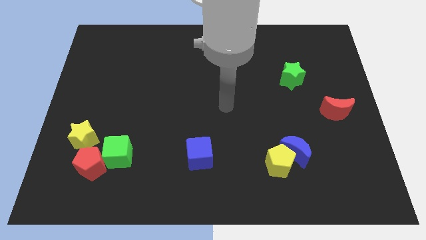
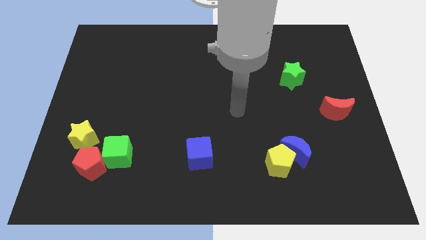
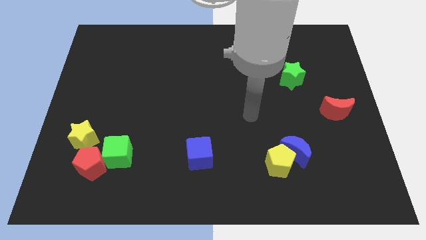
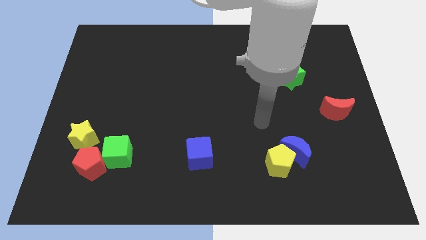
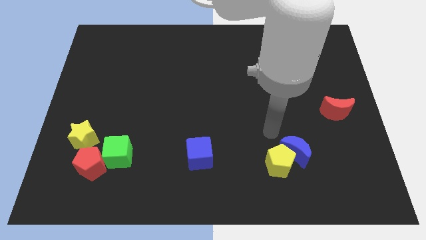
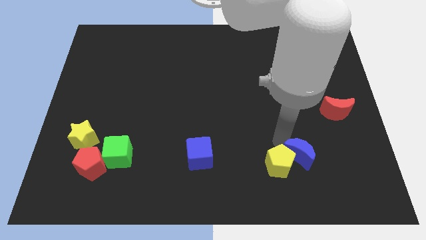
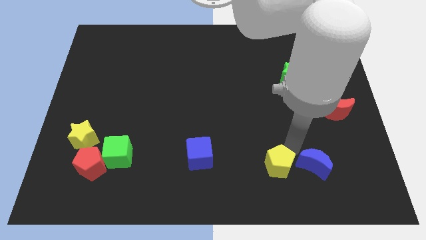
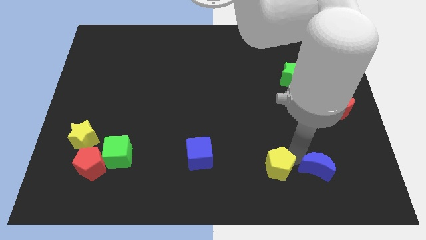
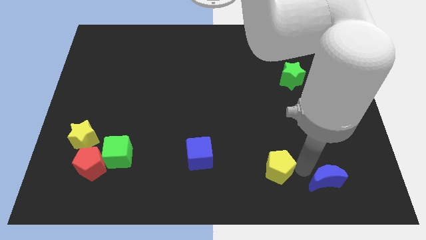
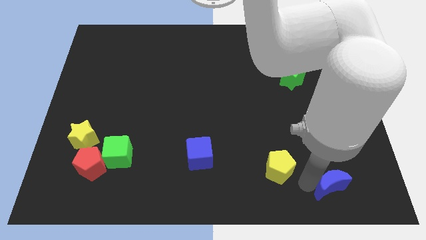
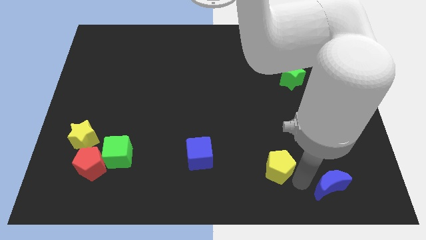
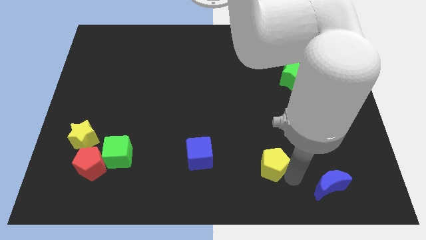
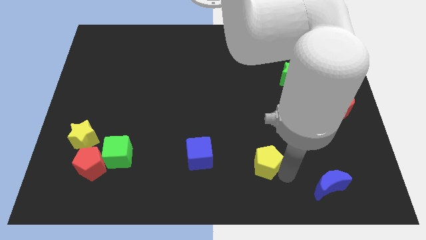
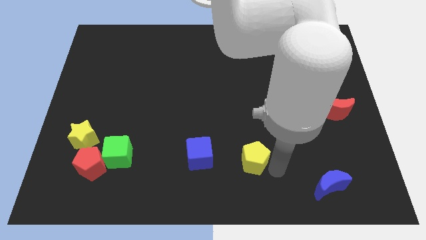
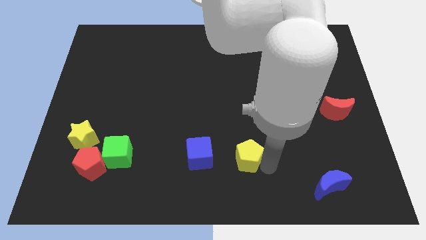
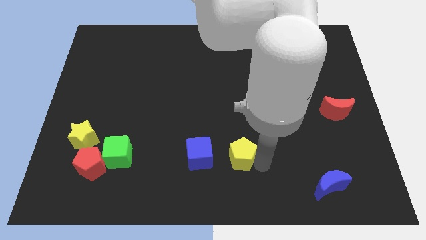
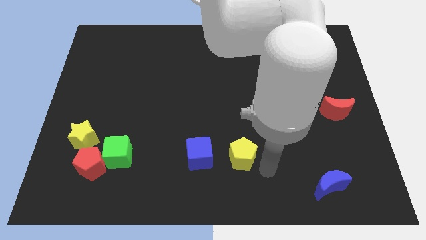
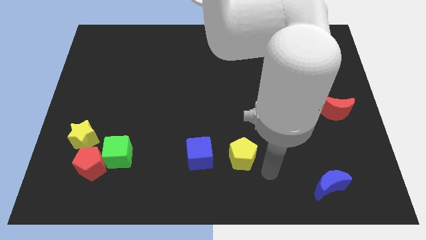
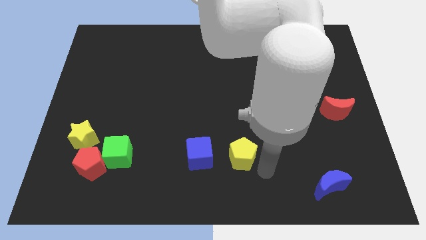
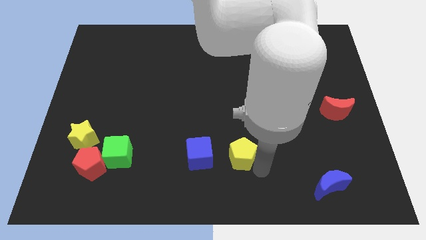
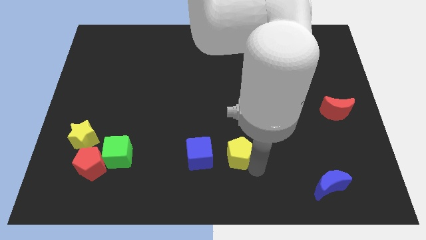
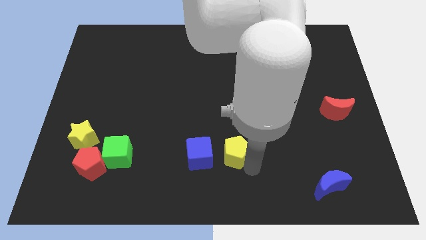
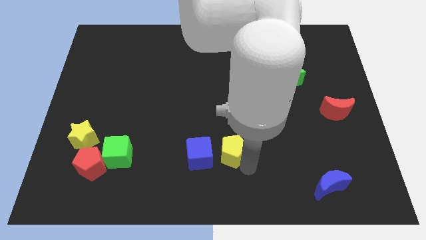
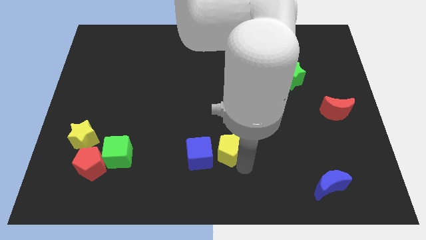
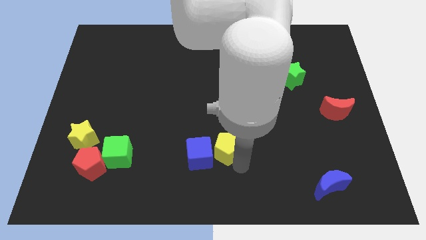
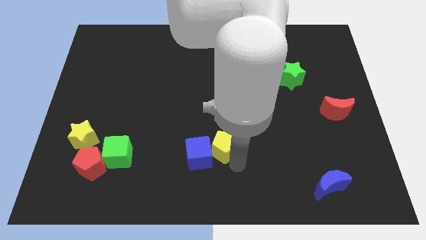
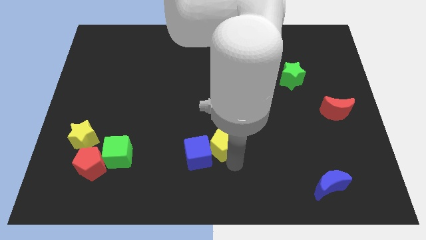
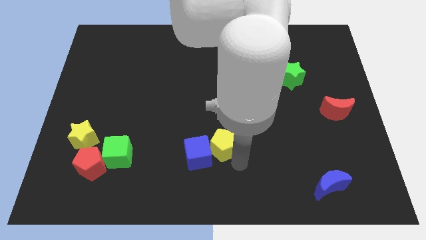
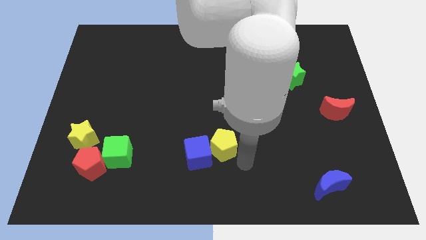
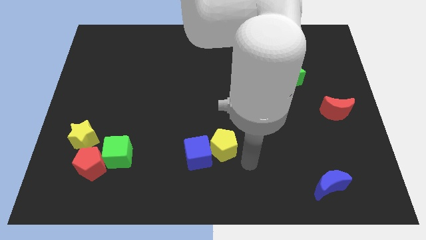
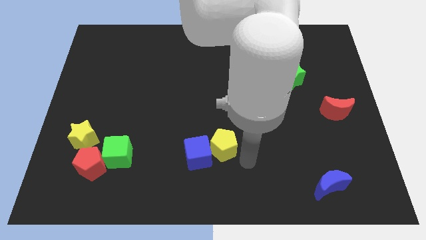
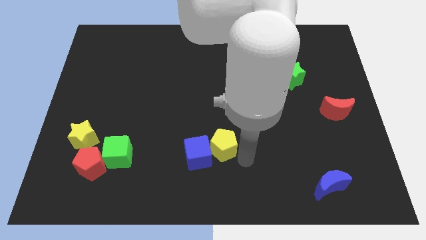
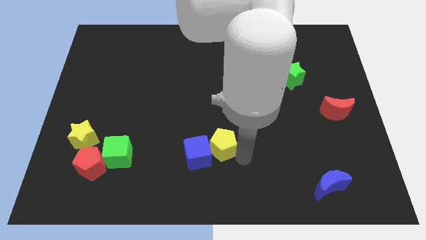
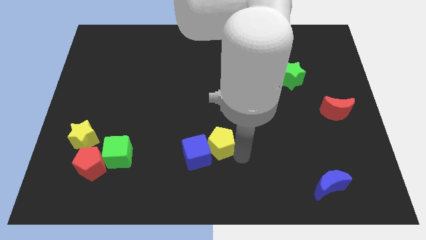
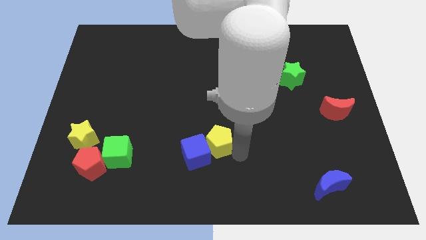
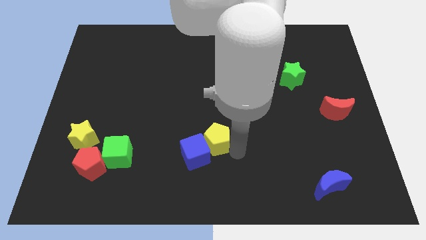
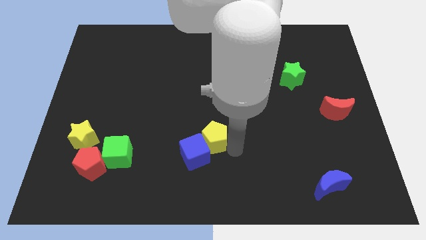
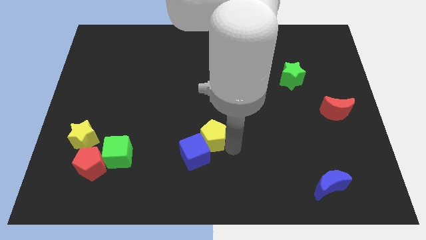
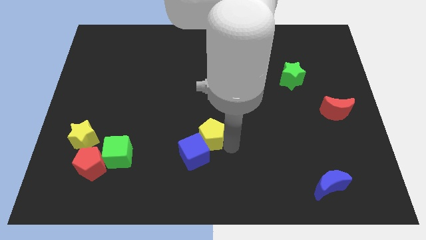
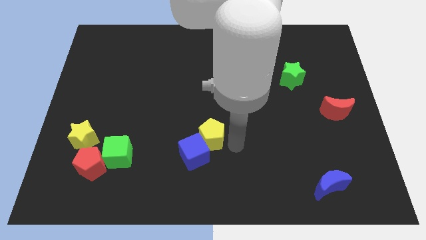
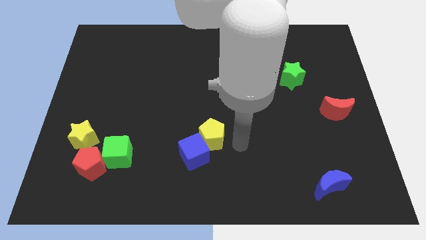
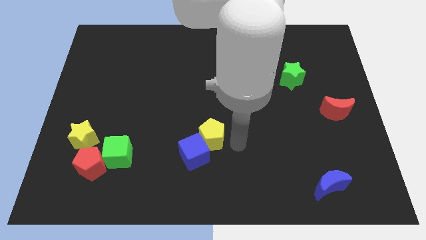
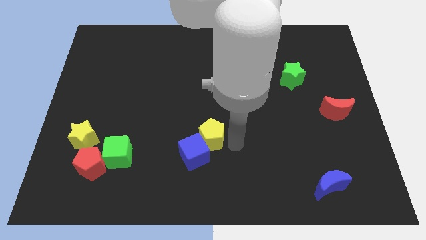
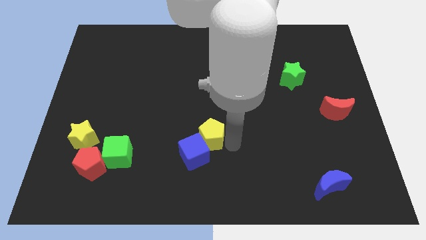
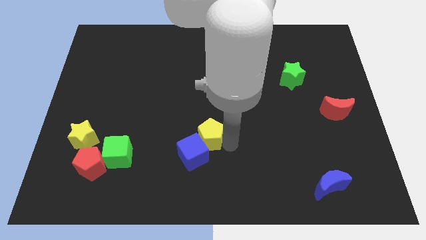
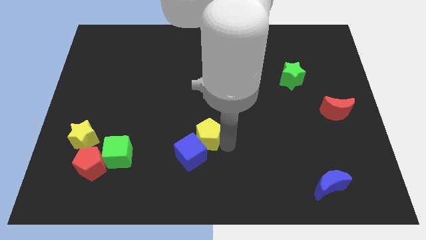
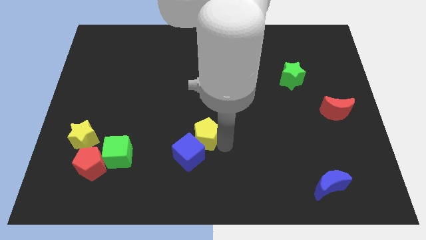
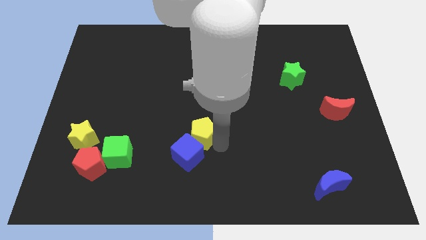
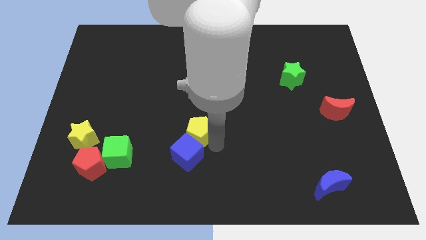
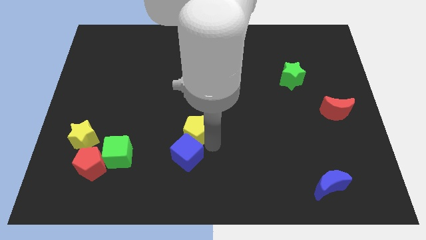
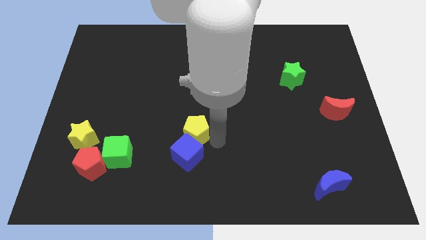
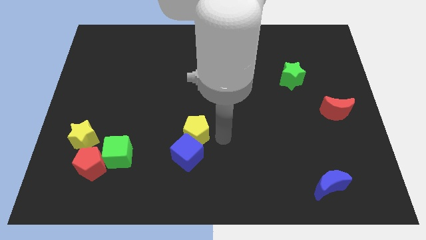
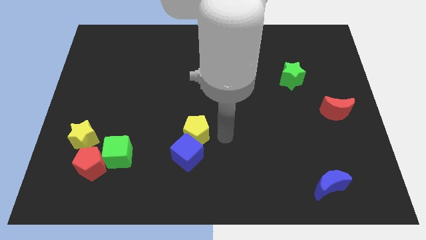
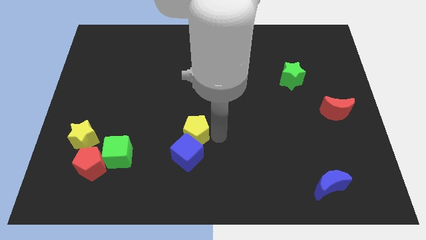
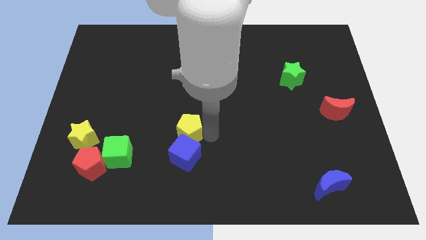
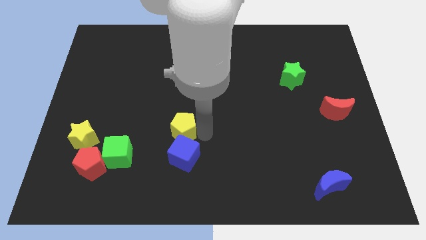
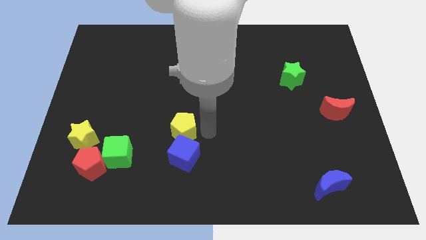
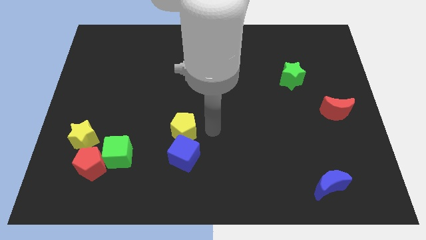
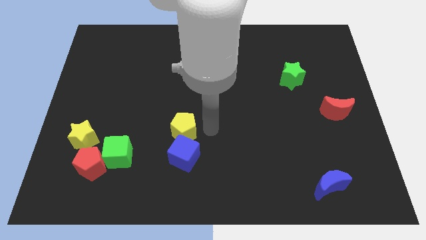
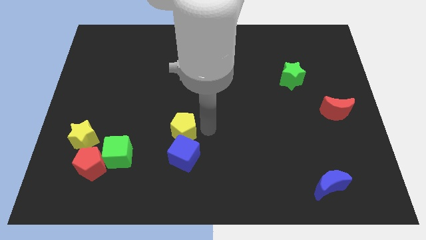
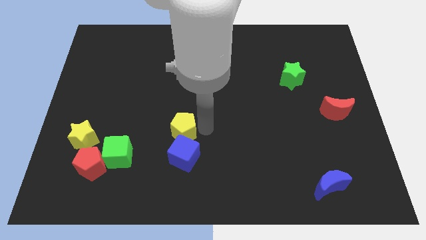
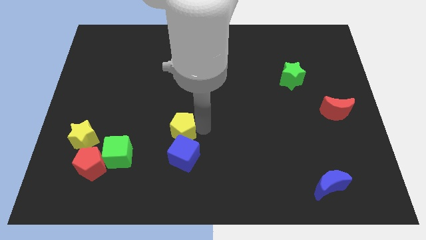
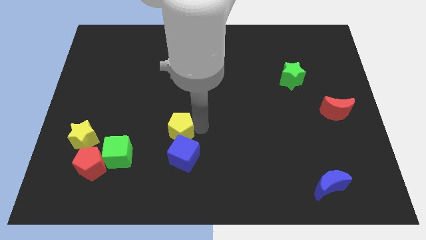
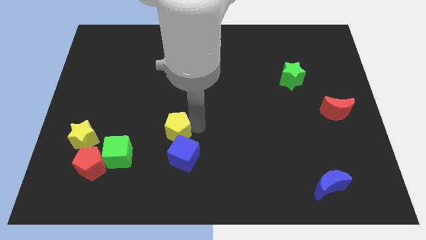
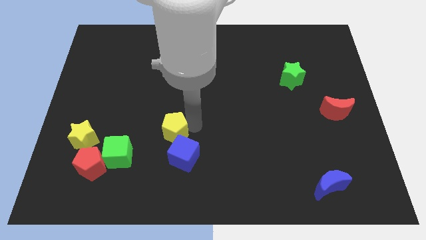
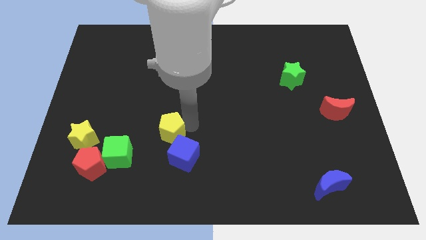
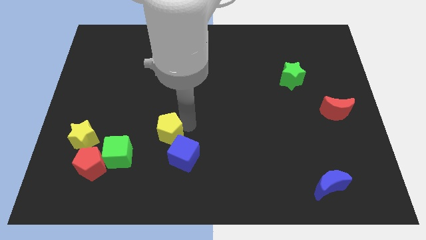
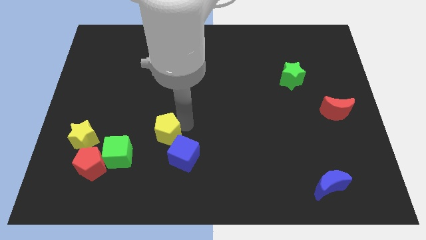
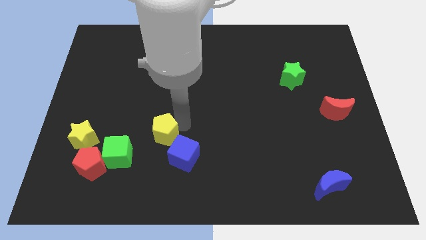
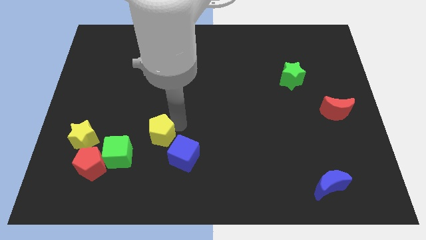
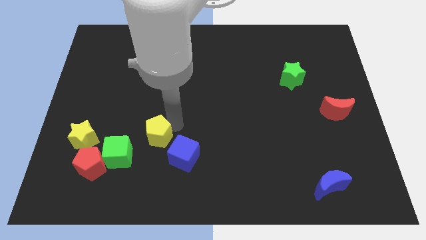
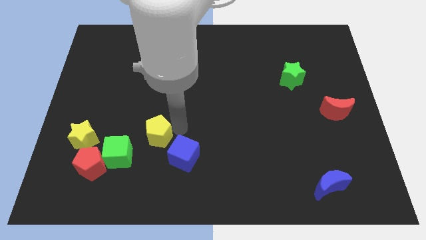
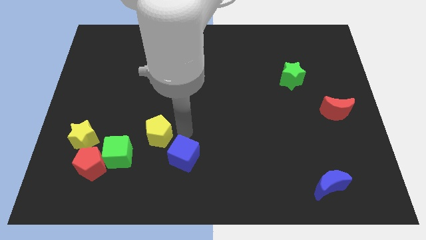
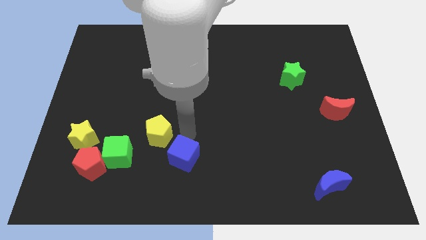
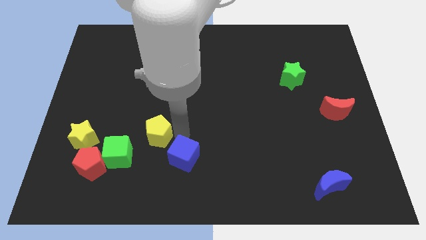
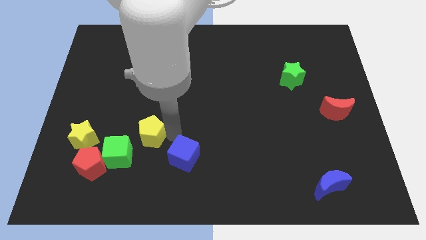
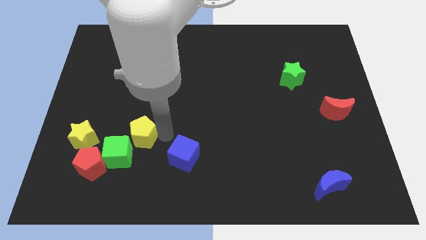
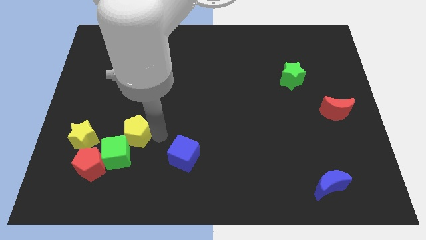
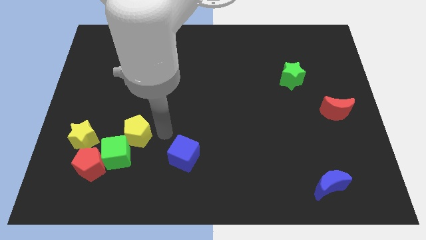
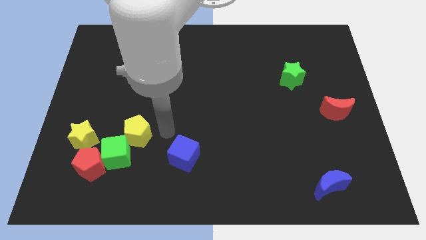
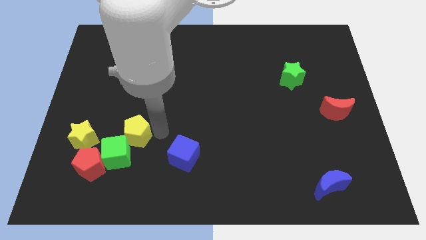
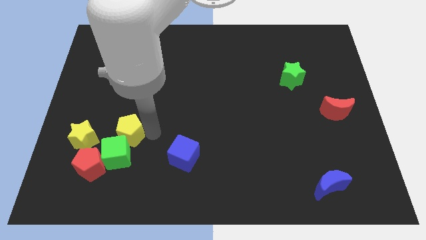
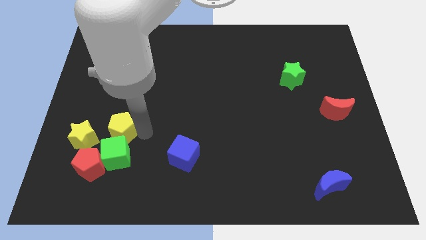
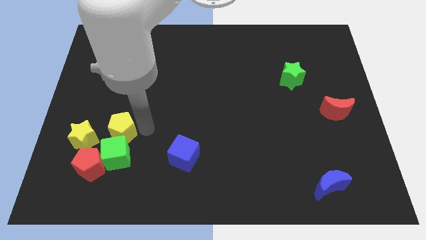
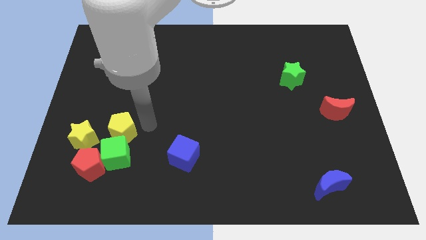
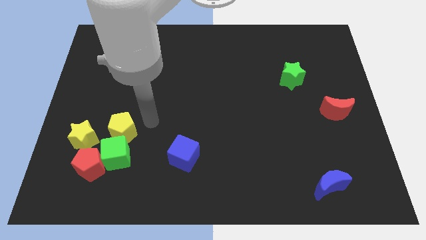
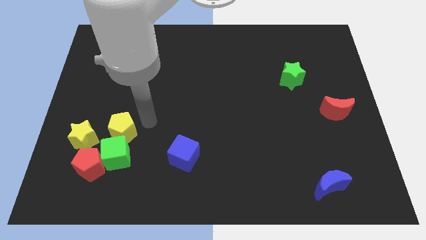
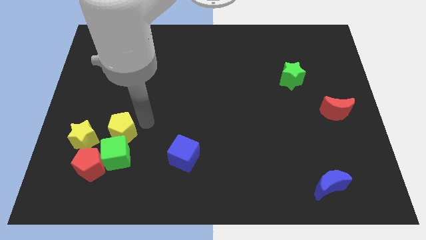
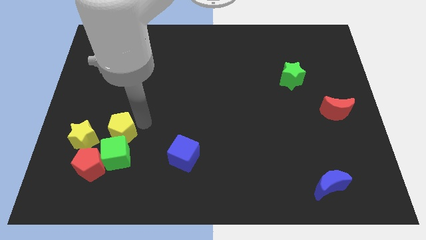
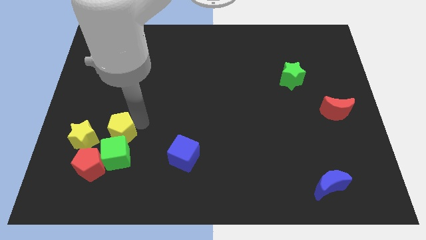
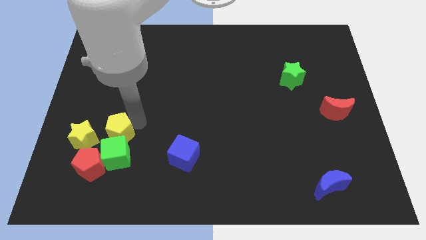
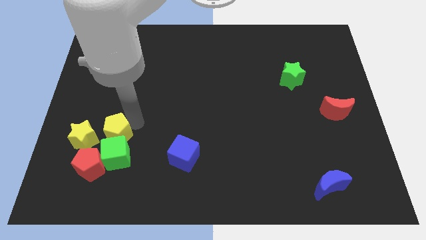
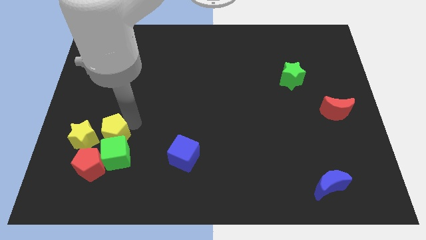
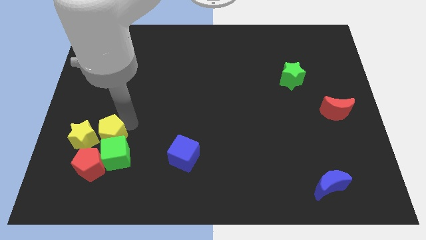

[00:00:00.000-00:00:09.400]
move the yellow pentagon next to the yellow star
